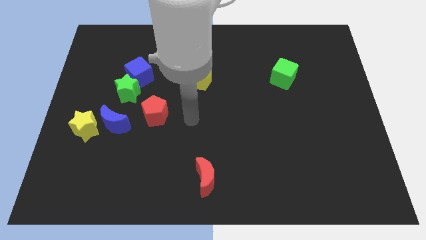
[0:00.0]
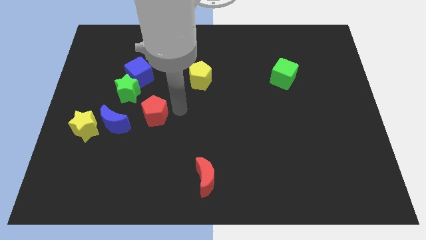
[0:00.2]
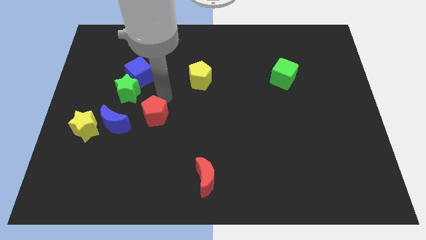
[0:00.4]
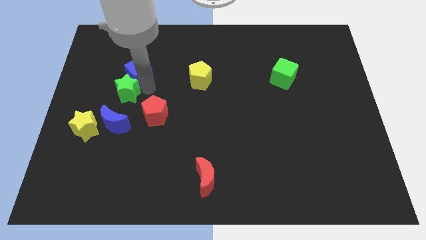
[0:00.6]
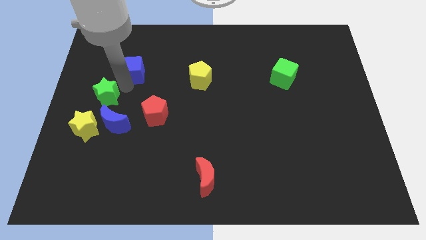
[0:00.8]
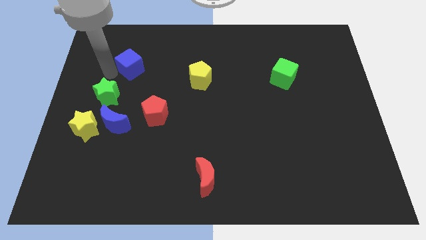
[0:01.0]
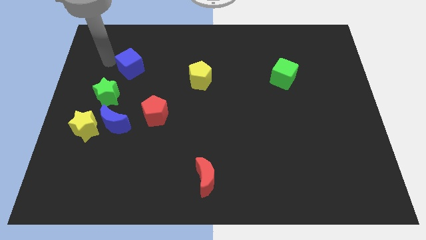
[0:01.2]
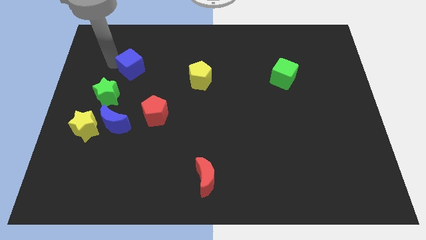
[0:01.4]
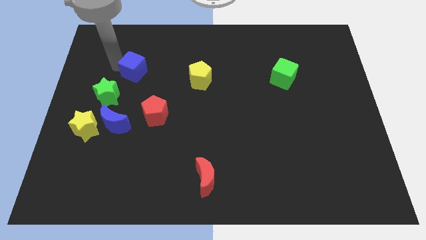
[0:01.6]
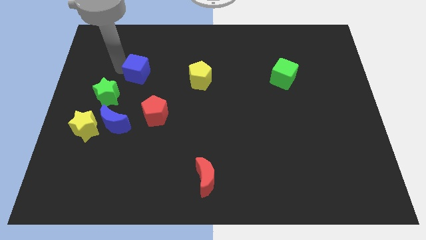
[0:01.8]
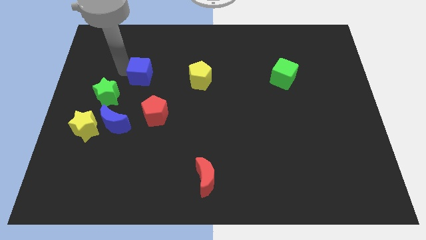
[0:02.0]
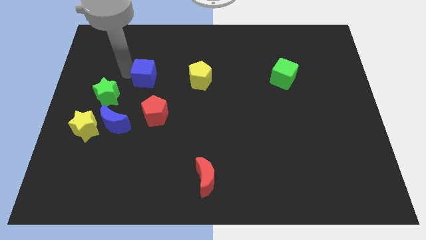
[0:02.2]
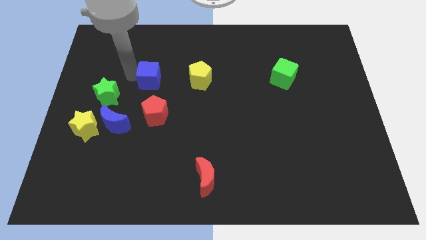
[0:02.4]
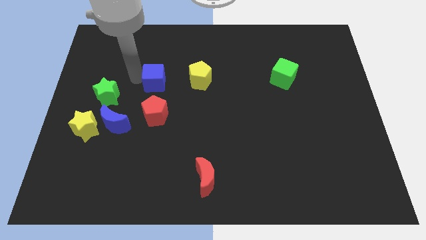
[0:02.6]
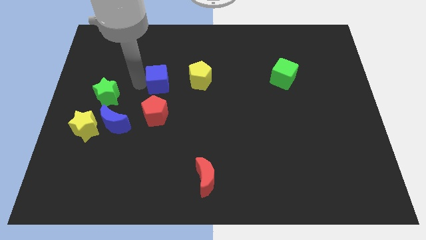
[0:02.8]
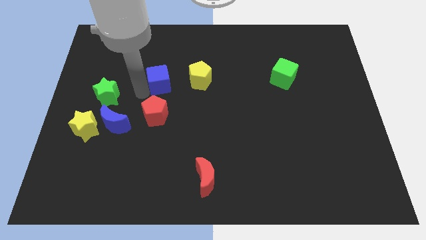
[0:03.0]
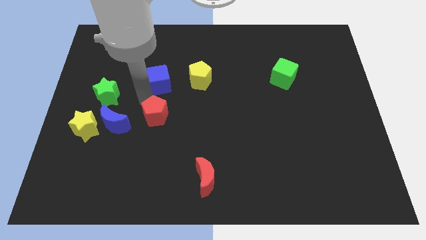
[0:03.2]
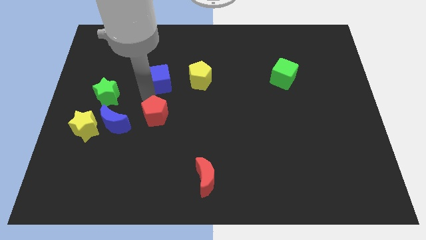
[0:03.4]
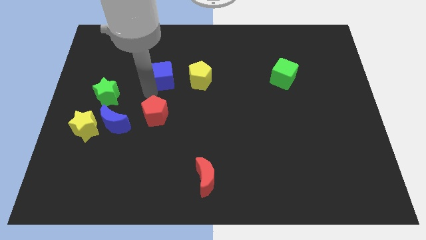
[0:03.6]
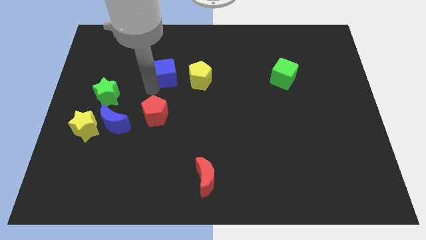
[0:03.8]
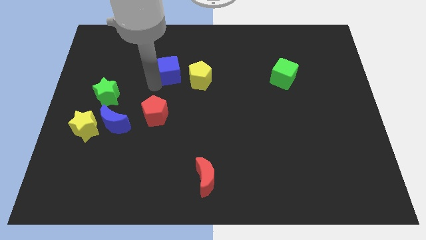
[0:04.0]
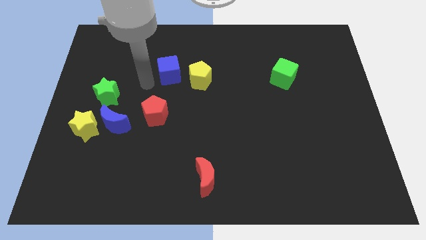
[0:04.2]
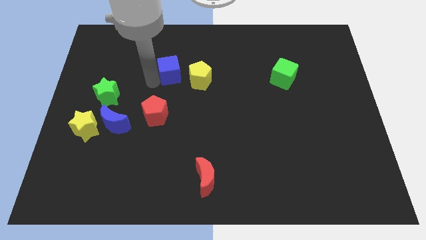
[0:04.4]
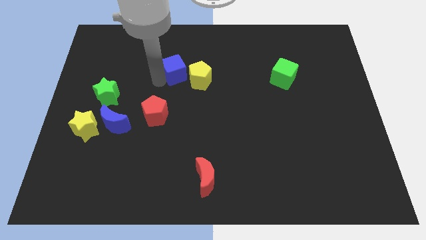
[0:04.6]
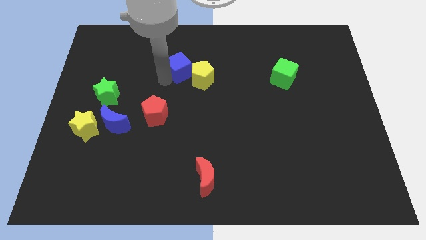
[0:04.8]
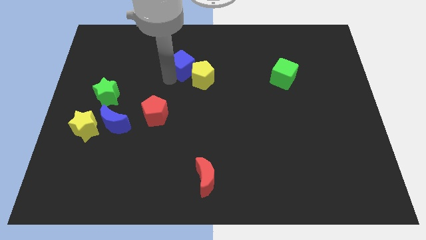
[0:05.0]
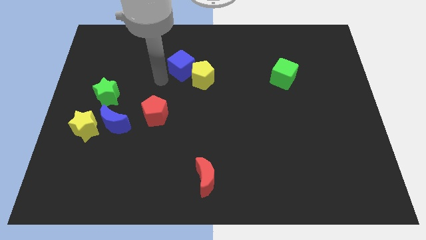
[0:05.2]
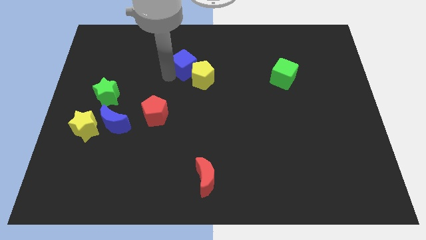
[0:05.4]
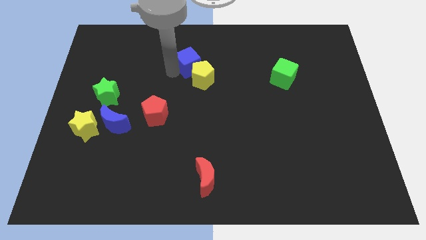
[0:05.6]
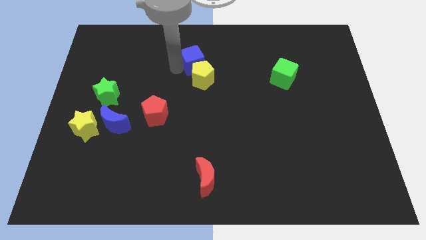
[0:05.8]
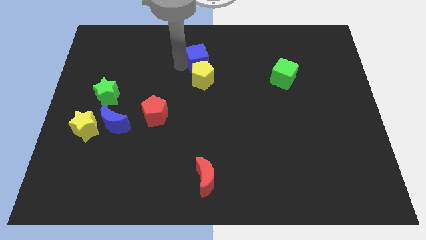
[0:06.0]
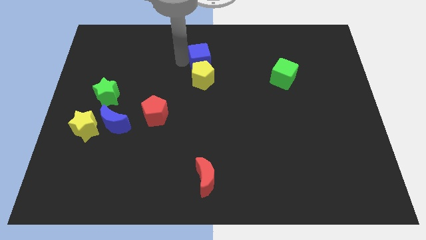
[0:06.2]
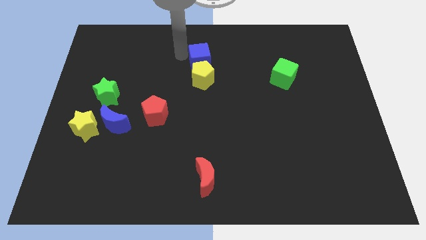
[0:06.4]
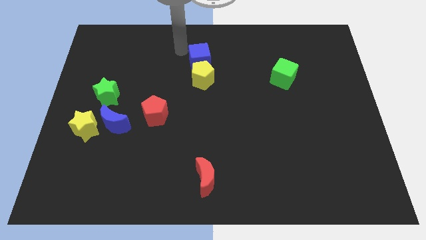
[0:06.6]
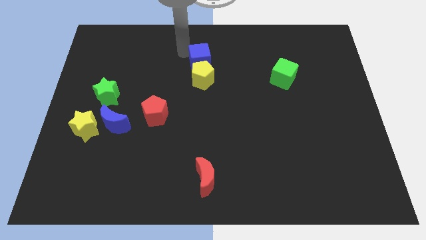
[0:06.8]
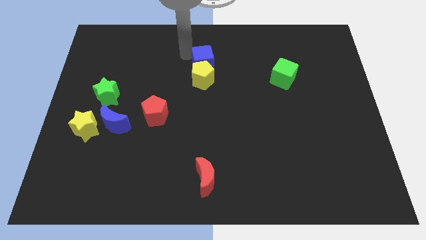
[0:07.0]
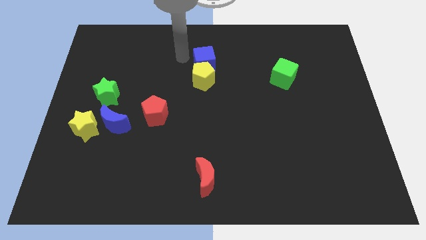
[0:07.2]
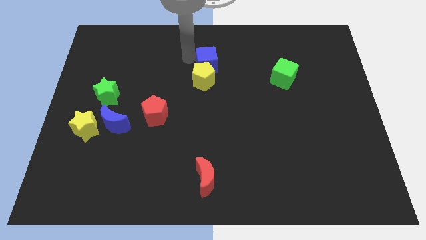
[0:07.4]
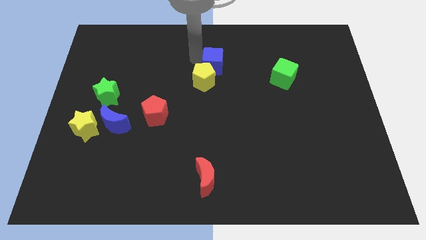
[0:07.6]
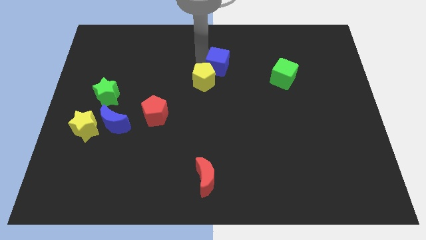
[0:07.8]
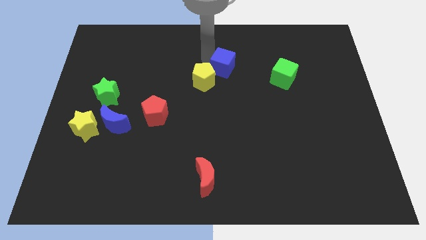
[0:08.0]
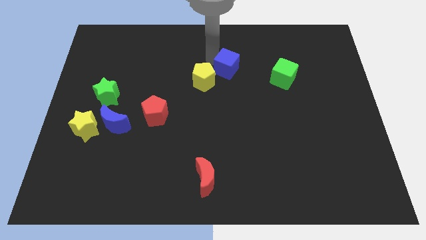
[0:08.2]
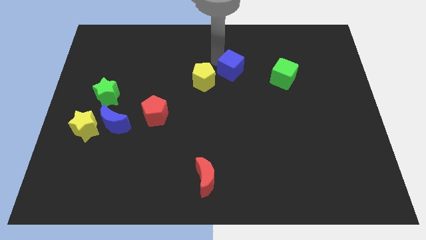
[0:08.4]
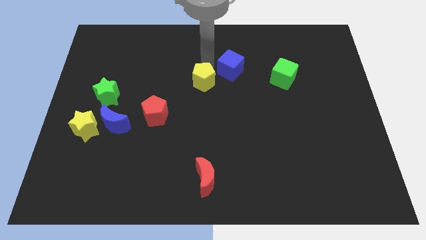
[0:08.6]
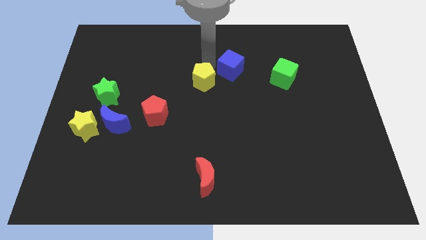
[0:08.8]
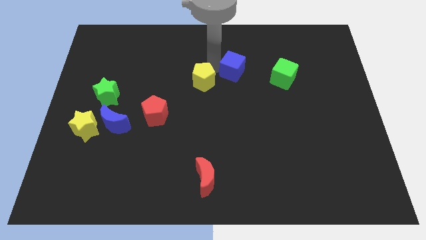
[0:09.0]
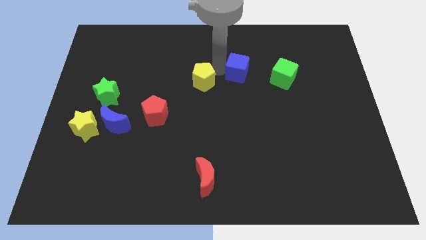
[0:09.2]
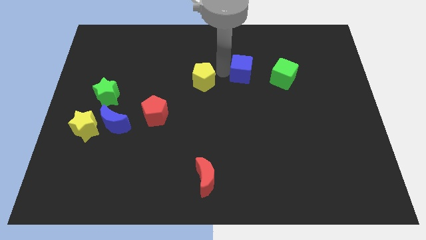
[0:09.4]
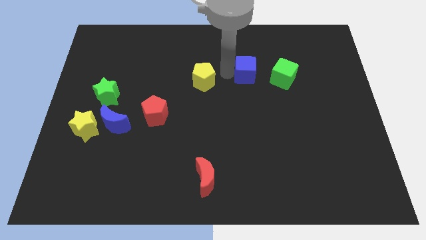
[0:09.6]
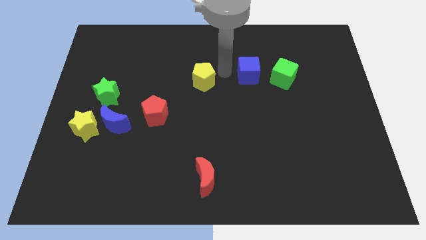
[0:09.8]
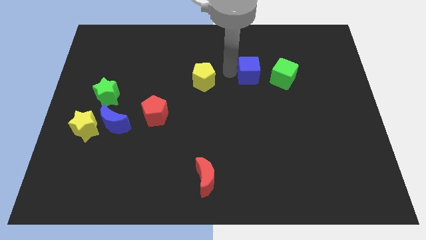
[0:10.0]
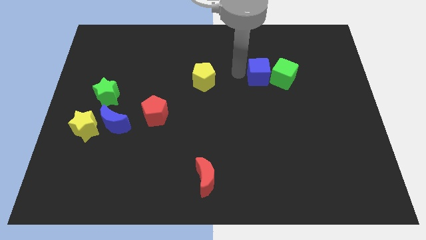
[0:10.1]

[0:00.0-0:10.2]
slide the blue cube to the green cube

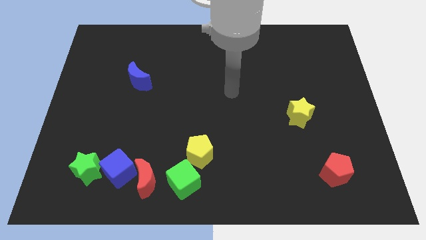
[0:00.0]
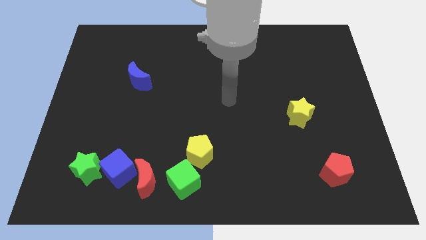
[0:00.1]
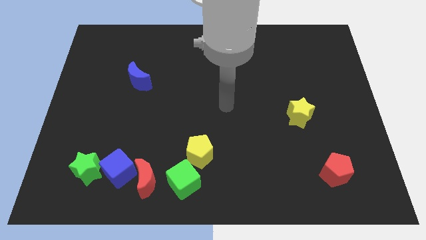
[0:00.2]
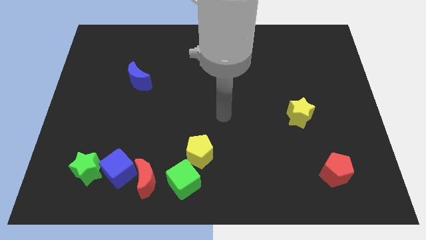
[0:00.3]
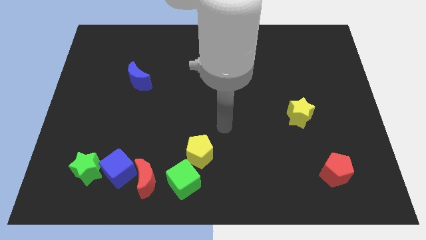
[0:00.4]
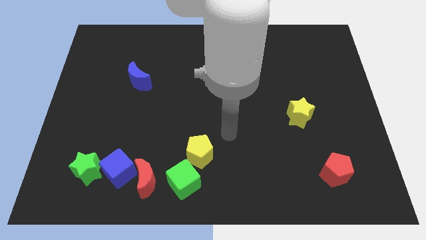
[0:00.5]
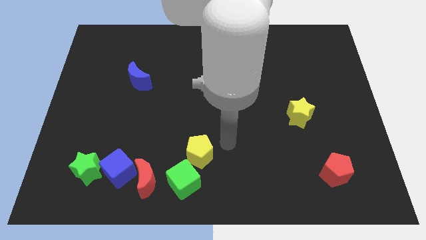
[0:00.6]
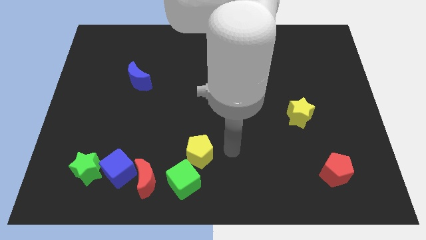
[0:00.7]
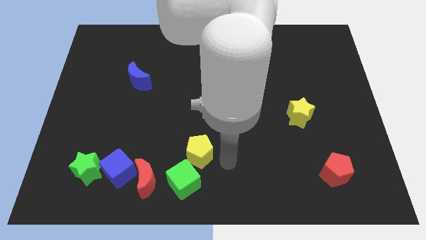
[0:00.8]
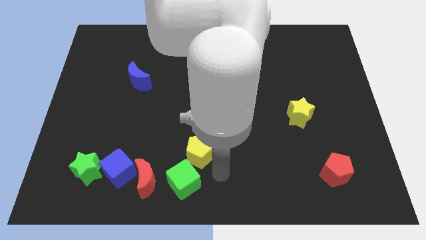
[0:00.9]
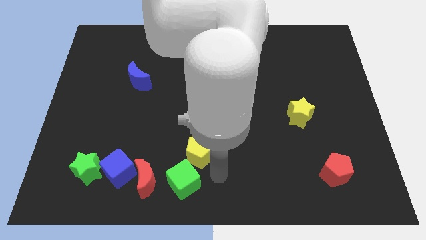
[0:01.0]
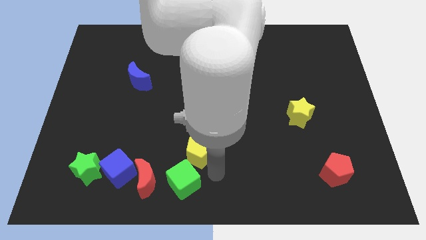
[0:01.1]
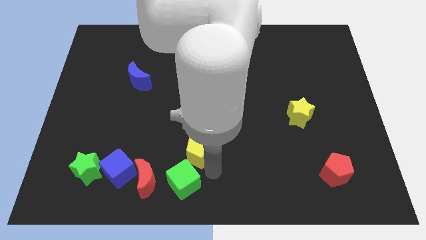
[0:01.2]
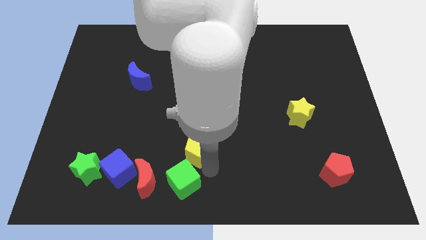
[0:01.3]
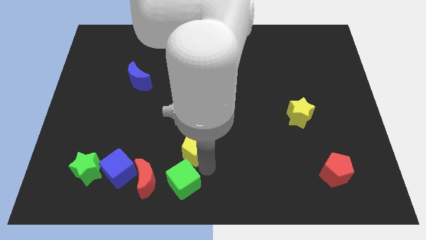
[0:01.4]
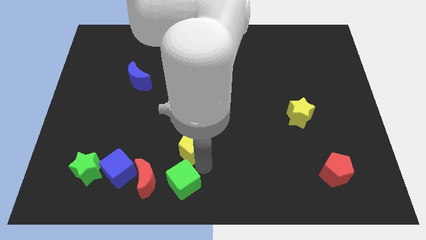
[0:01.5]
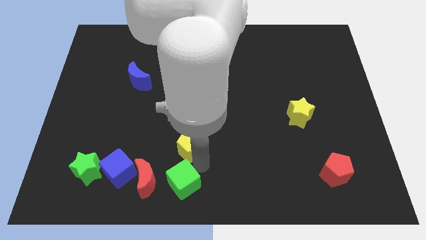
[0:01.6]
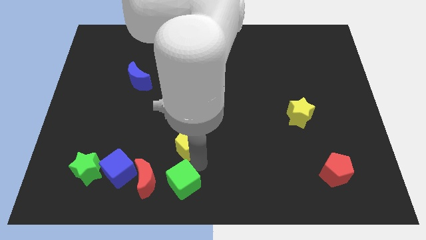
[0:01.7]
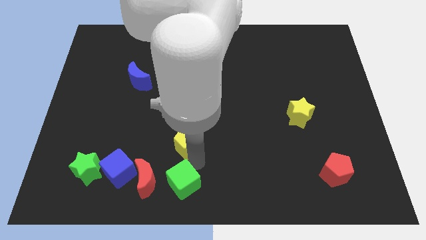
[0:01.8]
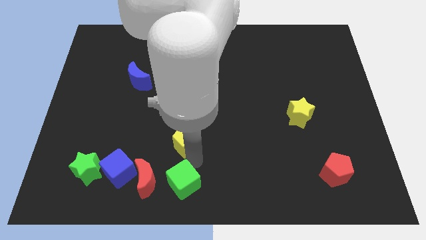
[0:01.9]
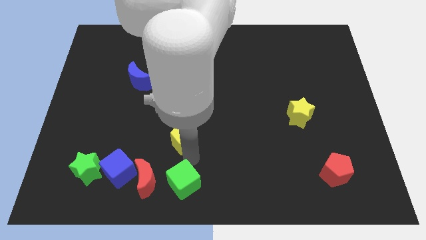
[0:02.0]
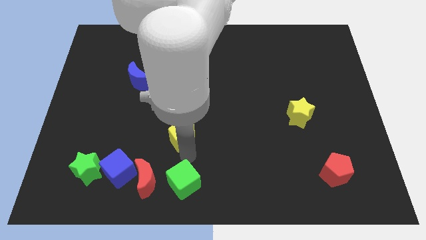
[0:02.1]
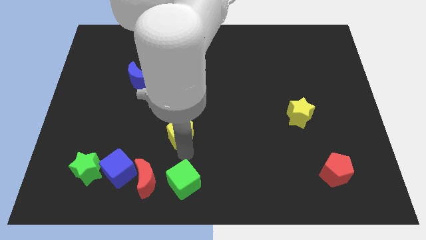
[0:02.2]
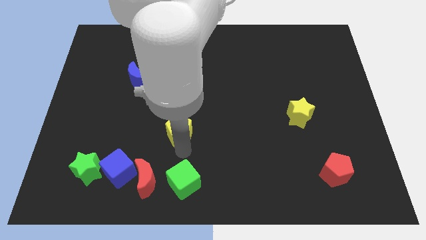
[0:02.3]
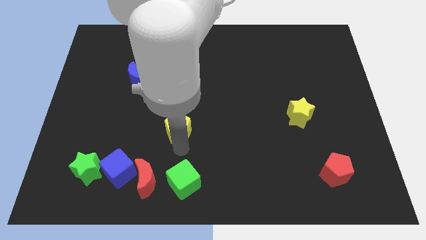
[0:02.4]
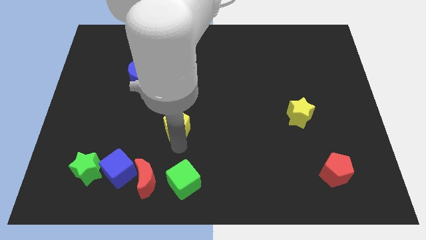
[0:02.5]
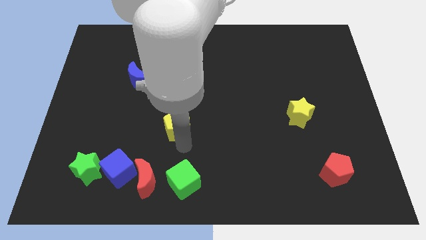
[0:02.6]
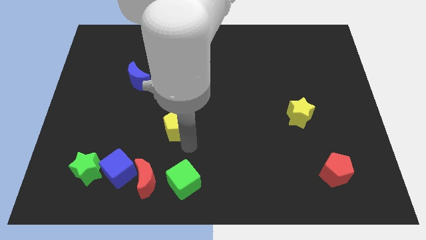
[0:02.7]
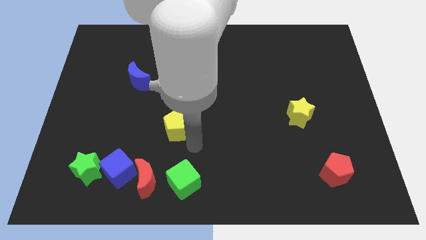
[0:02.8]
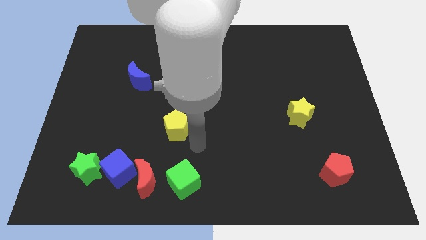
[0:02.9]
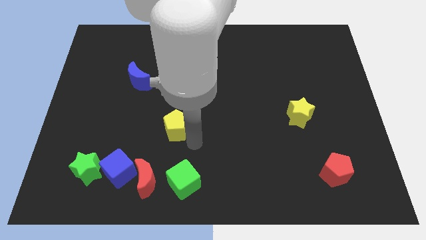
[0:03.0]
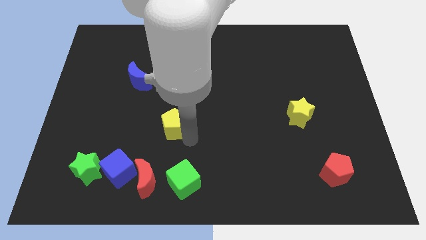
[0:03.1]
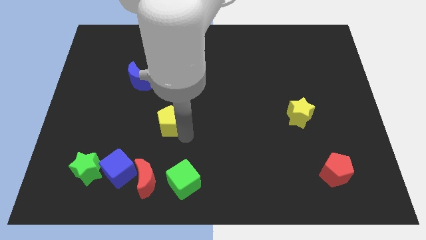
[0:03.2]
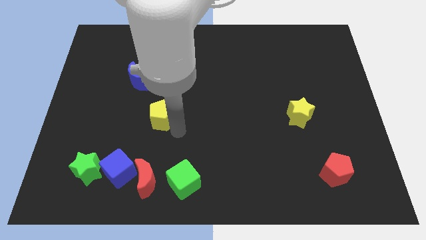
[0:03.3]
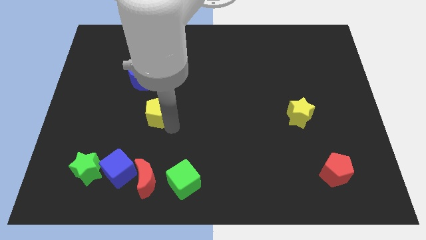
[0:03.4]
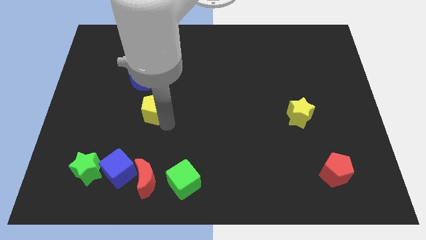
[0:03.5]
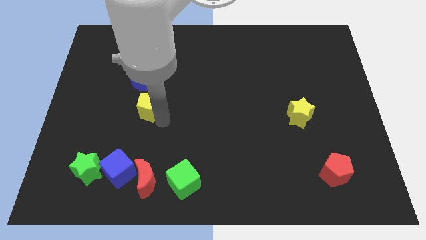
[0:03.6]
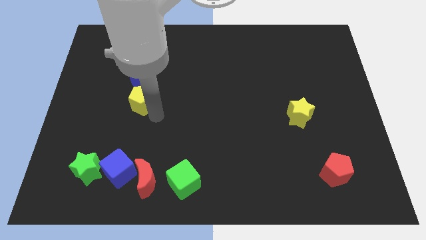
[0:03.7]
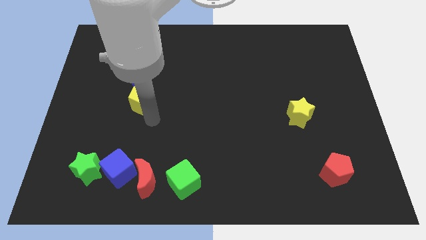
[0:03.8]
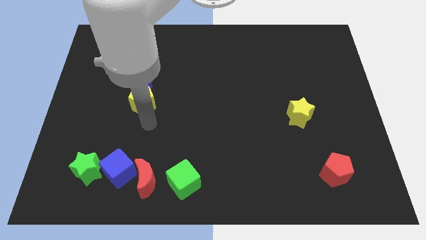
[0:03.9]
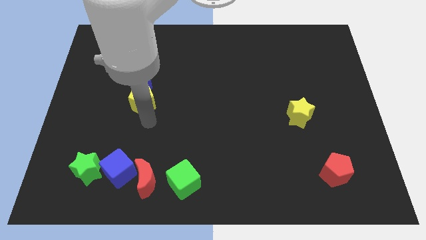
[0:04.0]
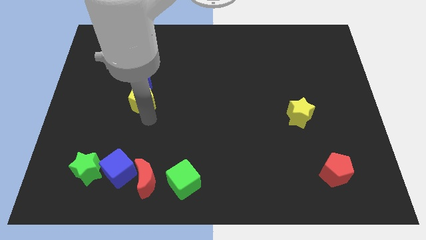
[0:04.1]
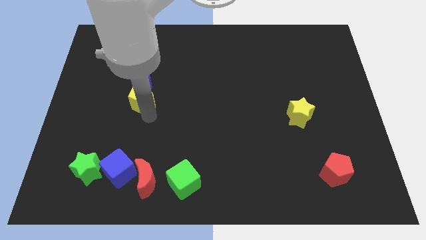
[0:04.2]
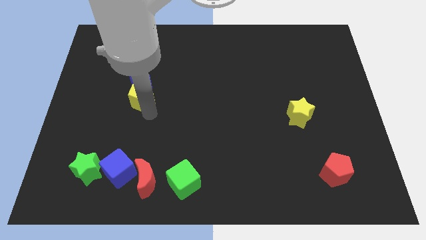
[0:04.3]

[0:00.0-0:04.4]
slide the yellow pentagon towards the blue moon
